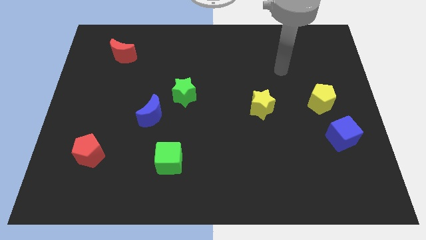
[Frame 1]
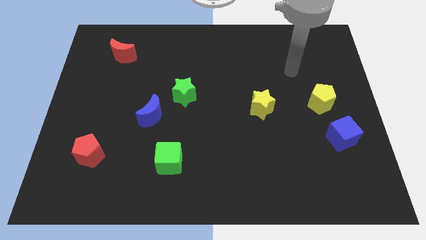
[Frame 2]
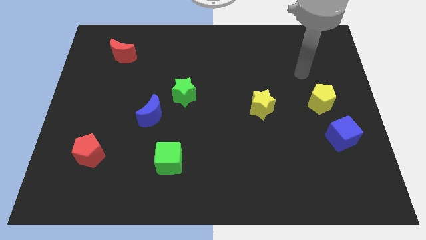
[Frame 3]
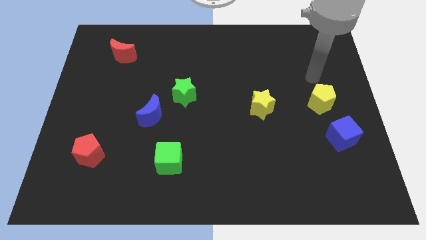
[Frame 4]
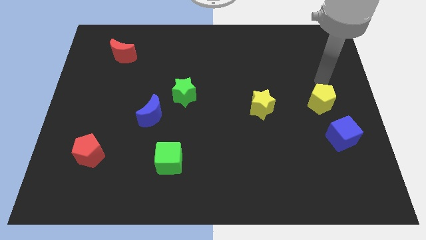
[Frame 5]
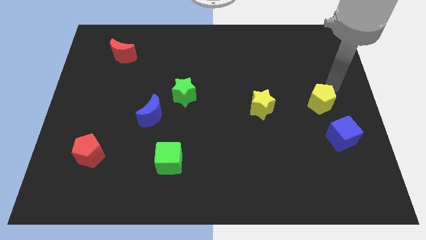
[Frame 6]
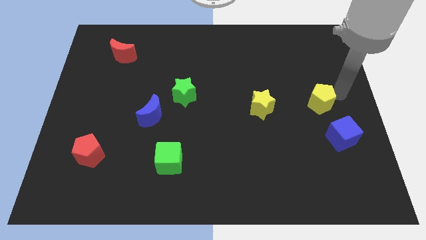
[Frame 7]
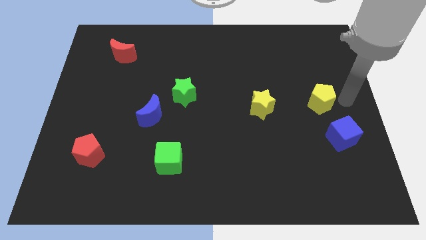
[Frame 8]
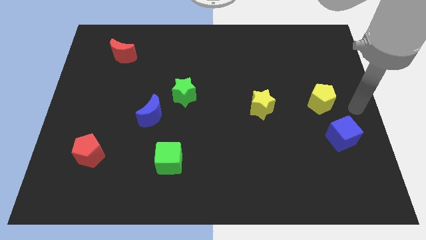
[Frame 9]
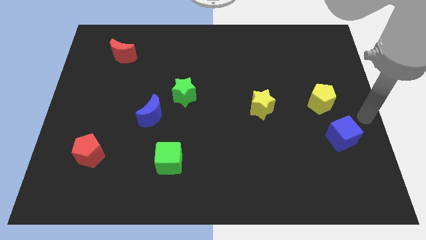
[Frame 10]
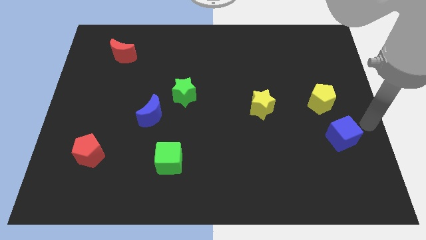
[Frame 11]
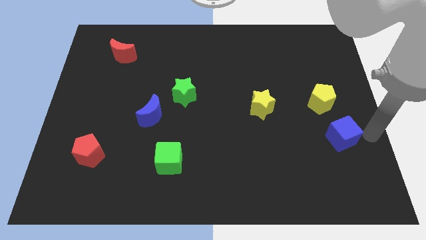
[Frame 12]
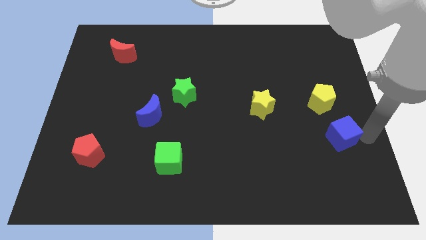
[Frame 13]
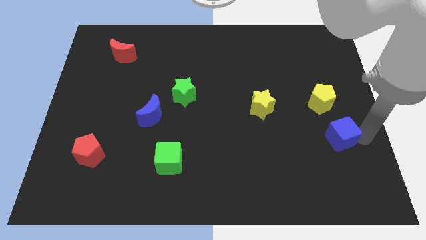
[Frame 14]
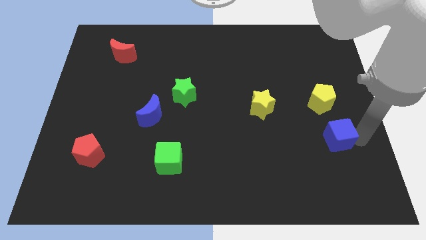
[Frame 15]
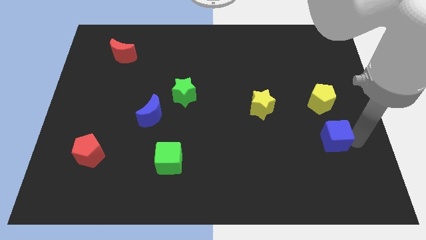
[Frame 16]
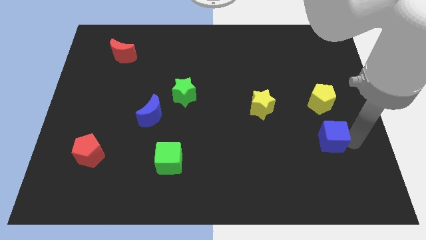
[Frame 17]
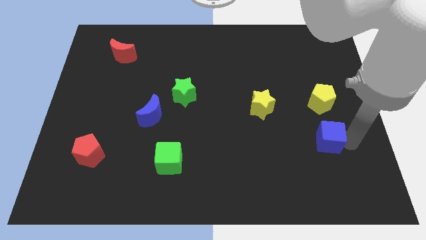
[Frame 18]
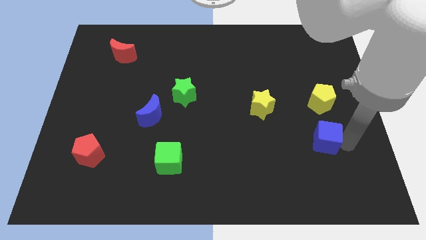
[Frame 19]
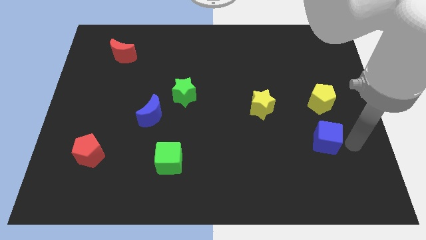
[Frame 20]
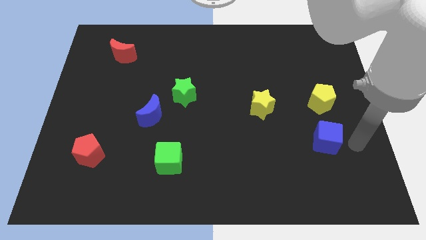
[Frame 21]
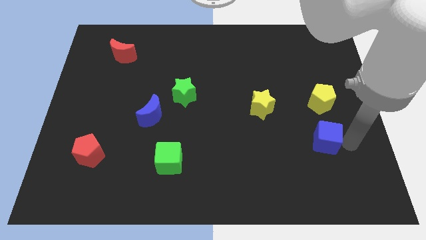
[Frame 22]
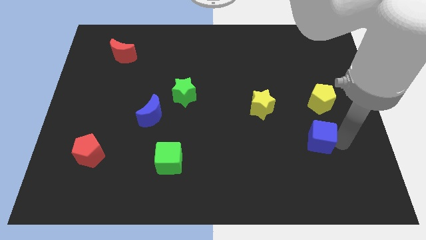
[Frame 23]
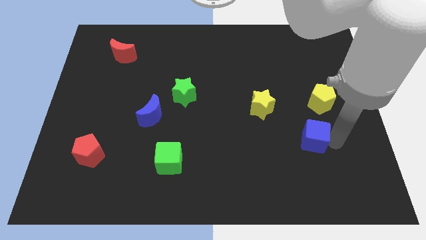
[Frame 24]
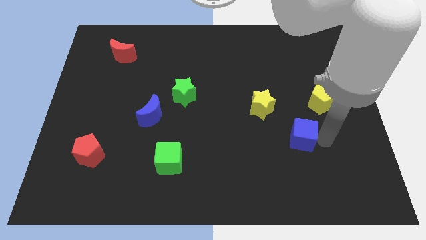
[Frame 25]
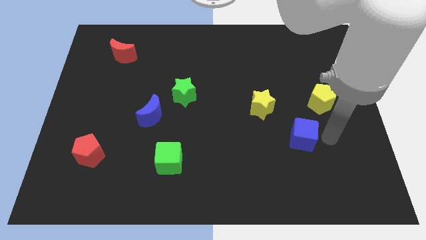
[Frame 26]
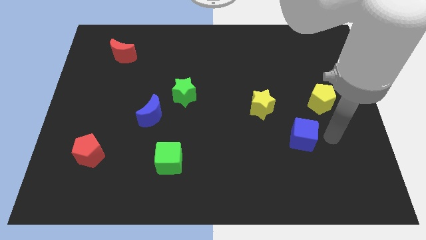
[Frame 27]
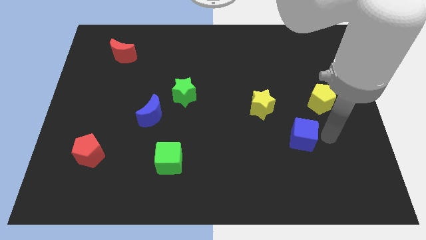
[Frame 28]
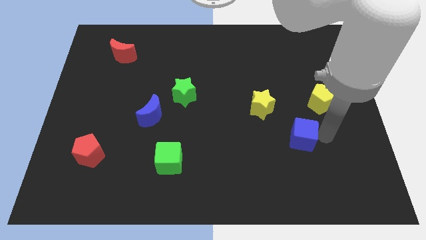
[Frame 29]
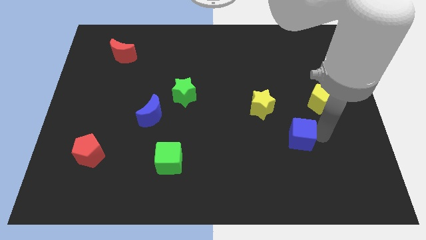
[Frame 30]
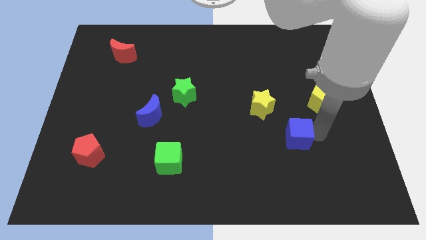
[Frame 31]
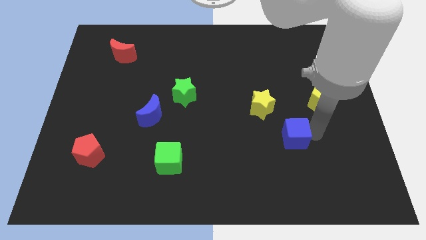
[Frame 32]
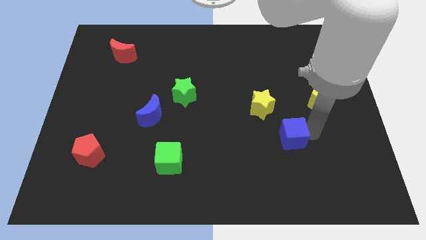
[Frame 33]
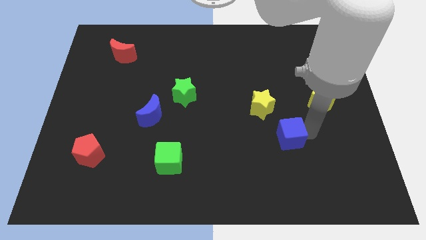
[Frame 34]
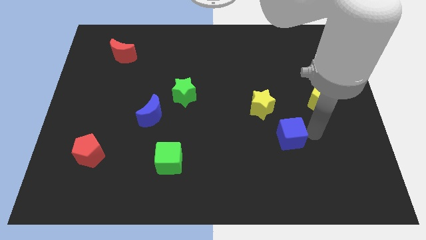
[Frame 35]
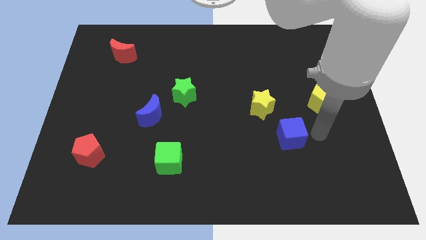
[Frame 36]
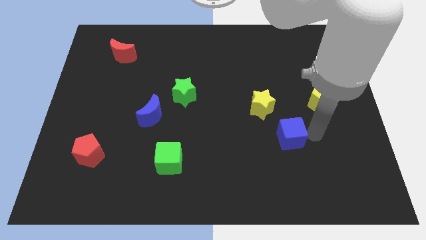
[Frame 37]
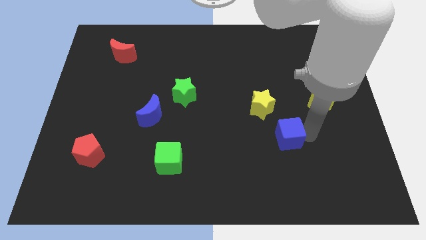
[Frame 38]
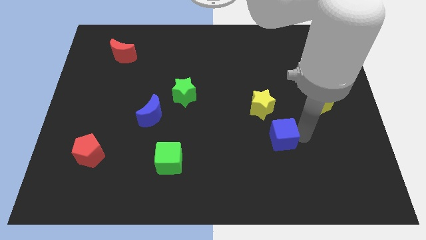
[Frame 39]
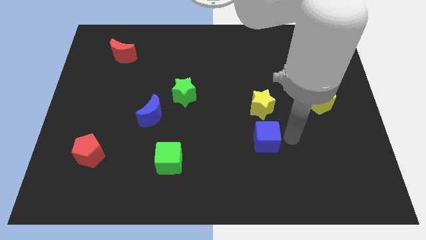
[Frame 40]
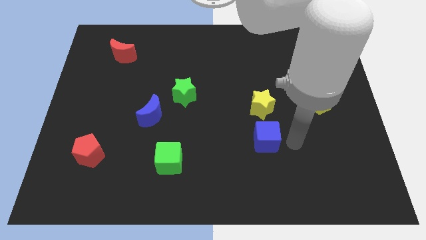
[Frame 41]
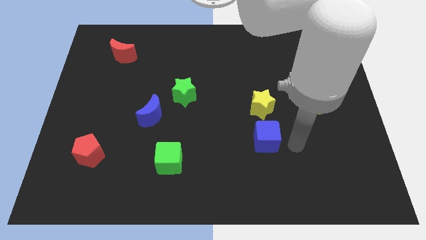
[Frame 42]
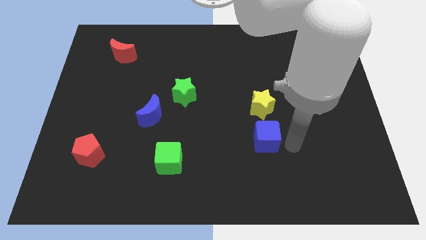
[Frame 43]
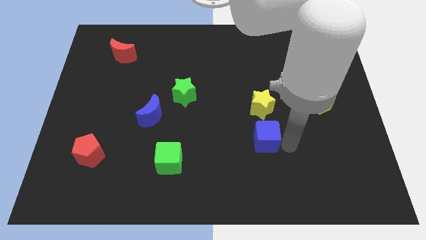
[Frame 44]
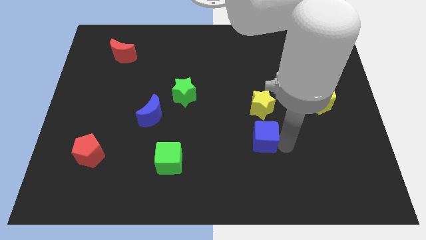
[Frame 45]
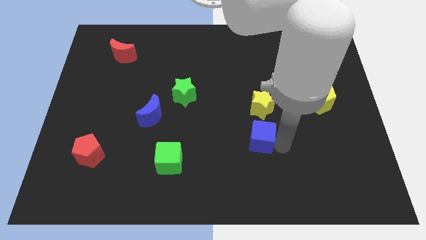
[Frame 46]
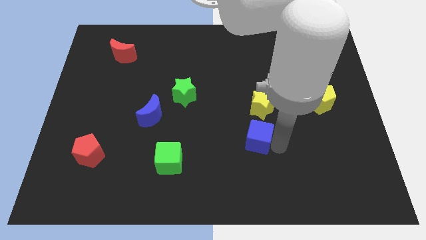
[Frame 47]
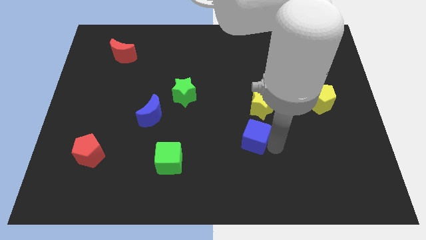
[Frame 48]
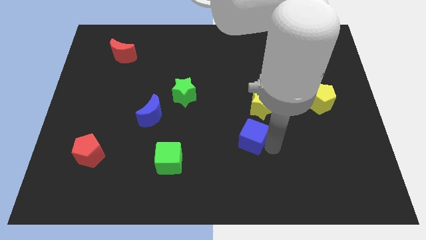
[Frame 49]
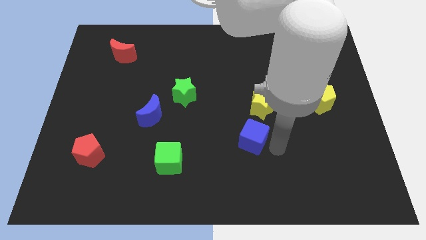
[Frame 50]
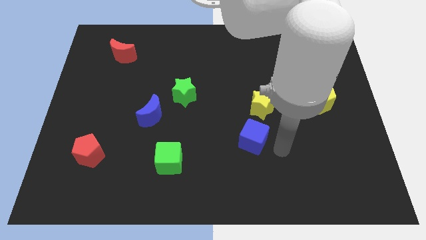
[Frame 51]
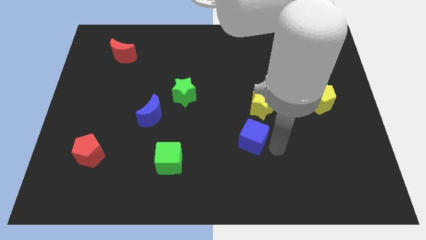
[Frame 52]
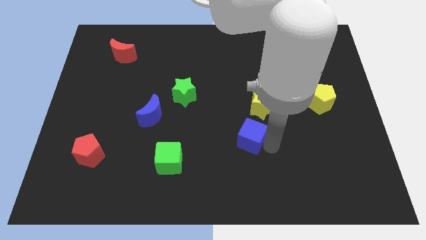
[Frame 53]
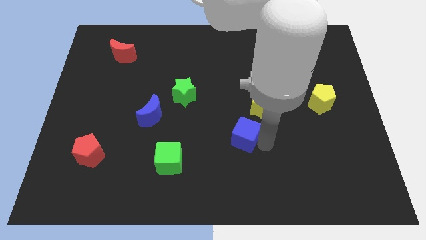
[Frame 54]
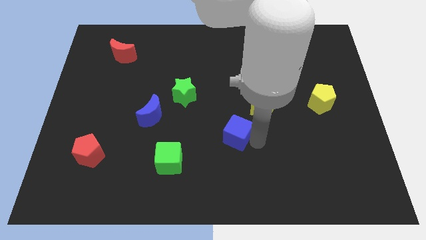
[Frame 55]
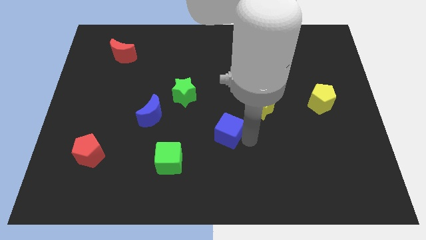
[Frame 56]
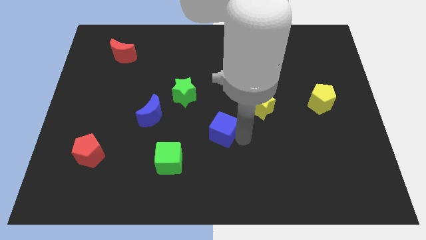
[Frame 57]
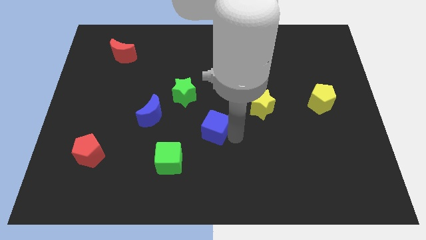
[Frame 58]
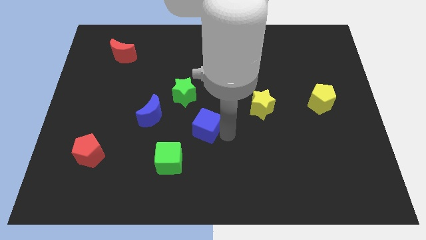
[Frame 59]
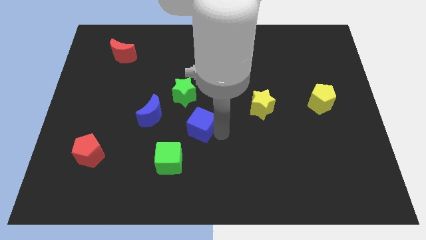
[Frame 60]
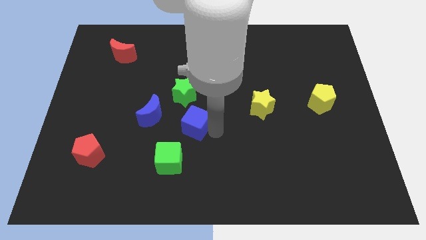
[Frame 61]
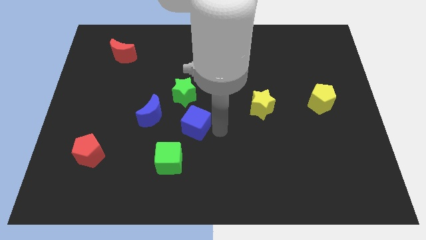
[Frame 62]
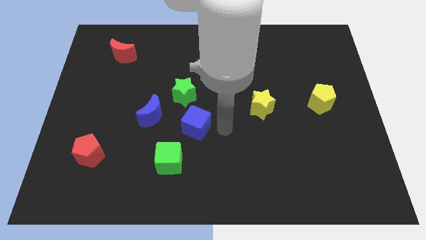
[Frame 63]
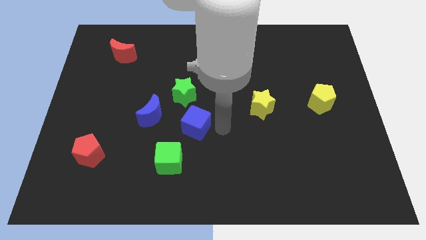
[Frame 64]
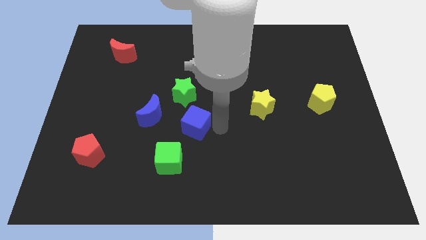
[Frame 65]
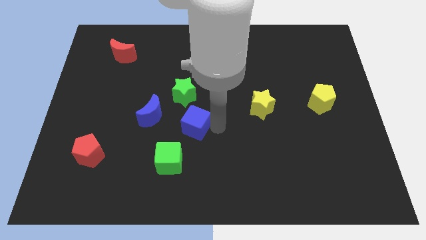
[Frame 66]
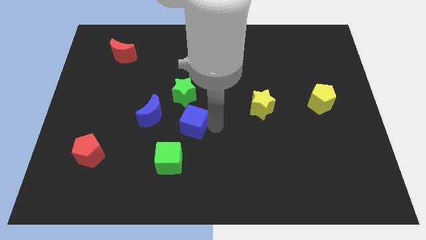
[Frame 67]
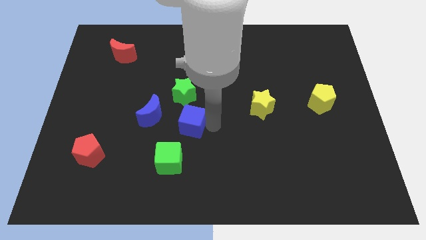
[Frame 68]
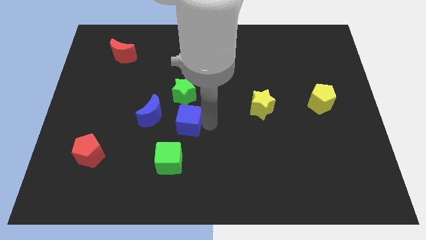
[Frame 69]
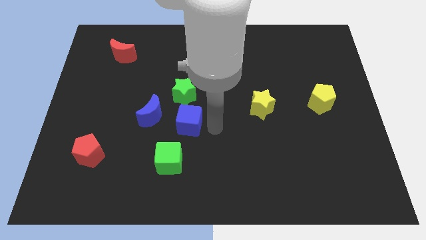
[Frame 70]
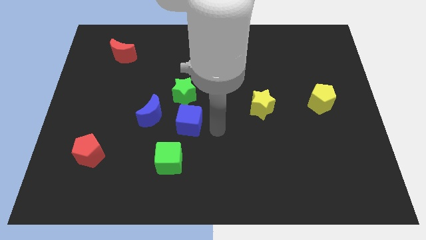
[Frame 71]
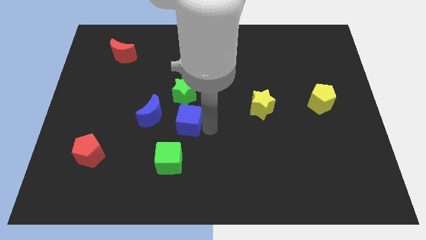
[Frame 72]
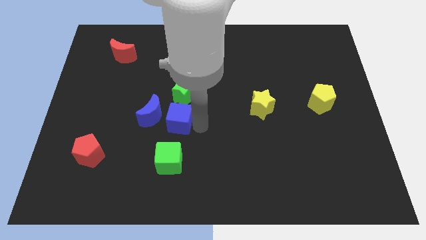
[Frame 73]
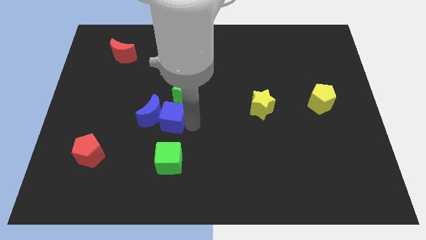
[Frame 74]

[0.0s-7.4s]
put the blue cube to the blue moon
